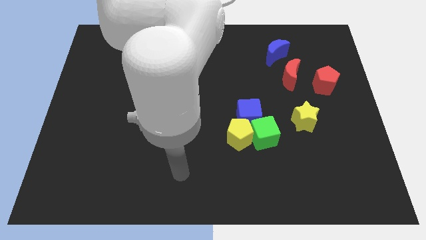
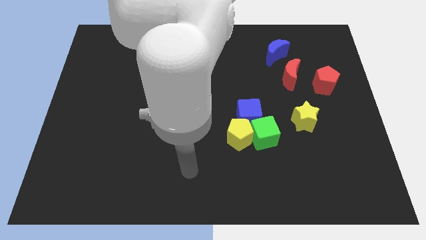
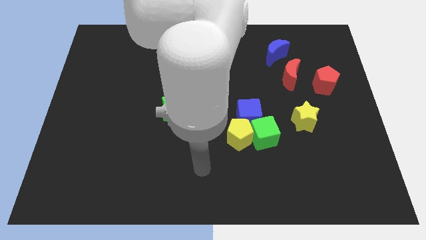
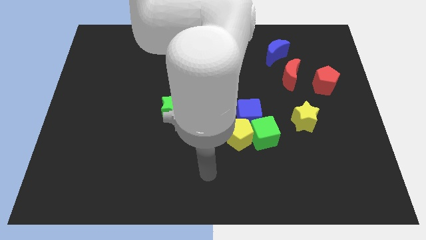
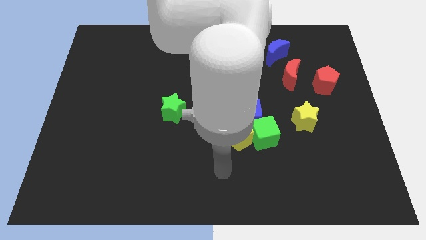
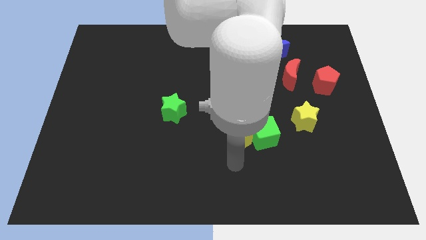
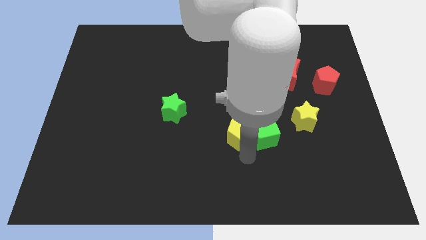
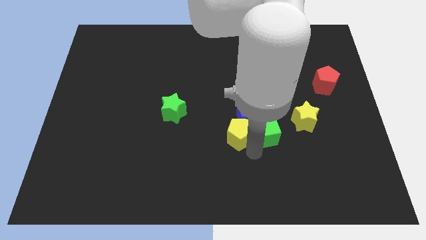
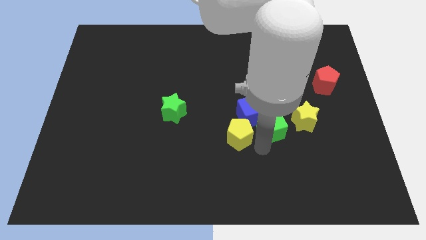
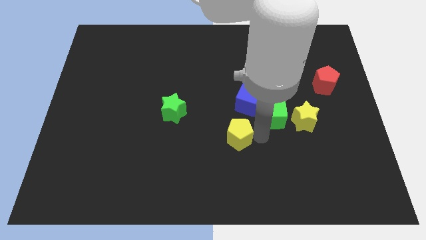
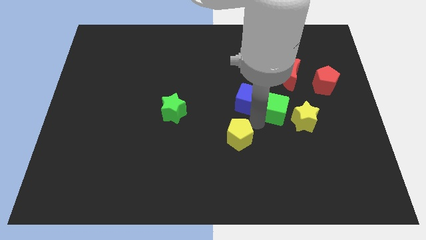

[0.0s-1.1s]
separate the yellow pentagon from the green cube and blue cube

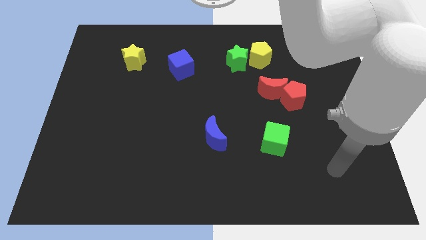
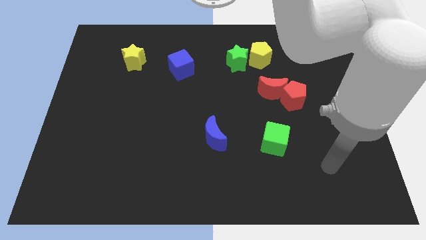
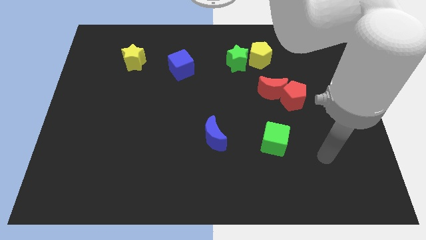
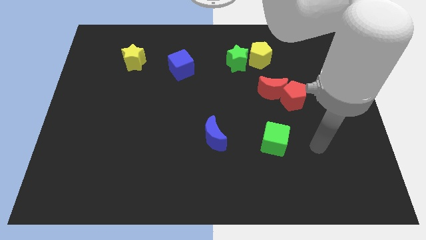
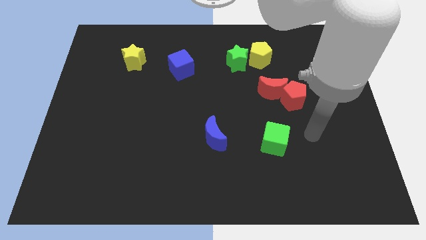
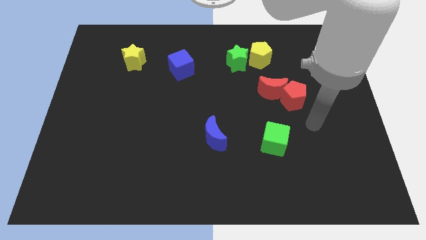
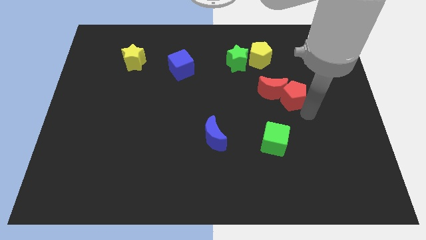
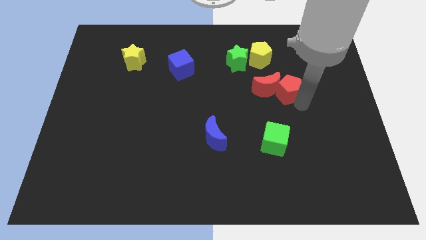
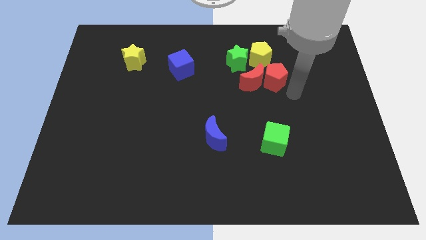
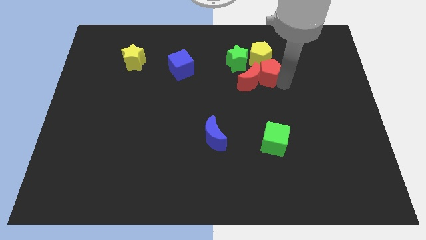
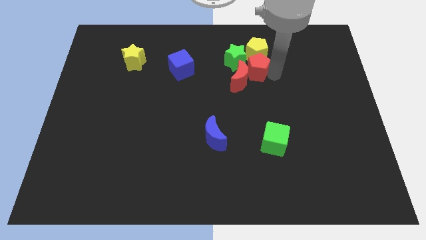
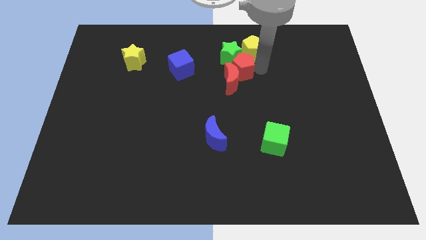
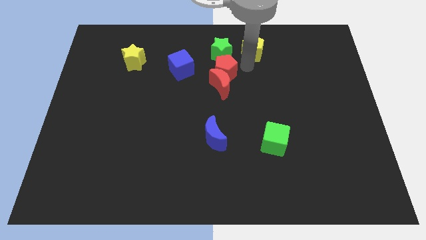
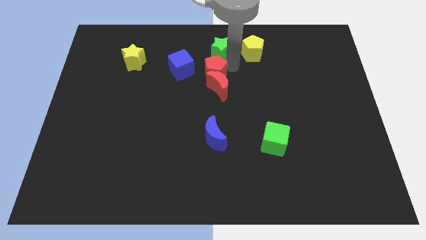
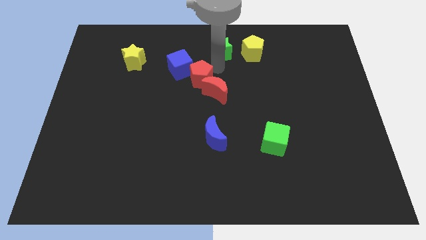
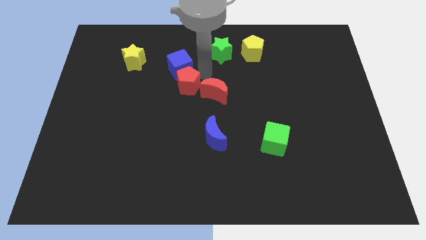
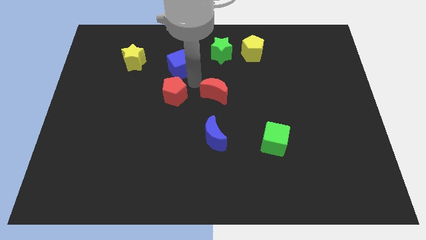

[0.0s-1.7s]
move the red moon away from the red pentagon

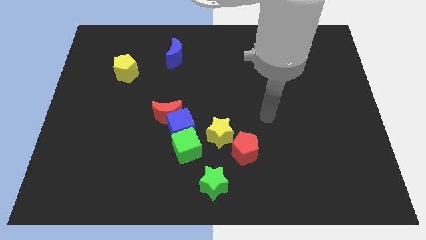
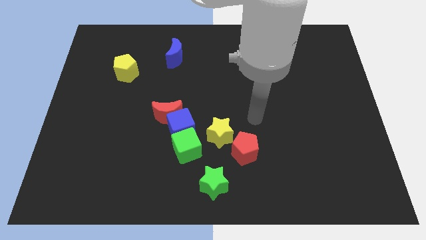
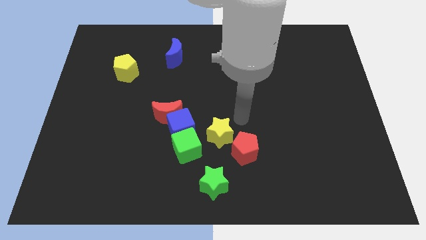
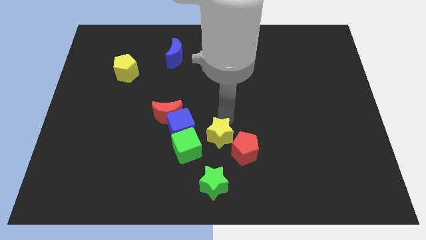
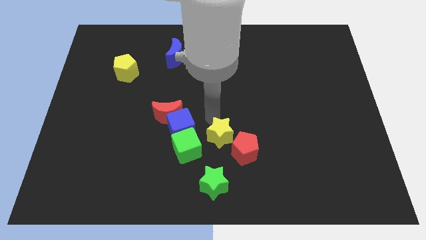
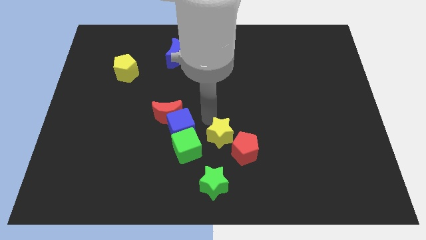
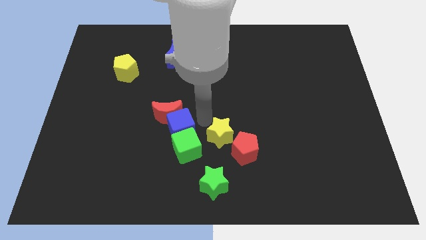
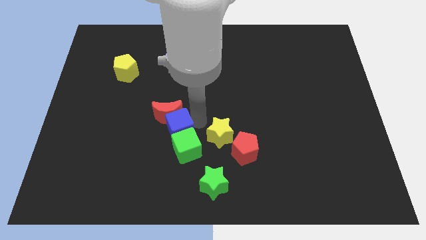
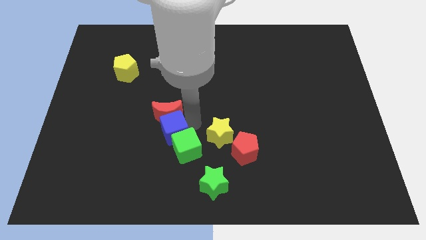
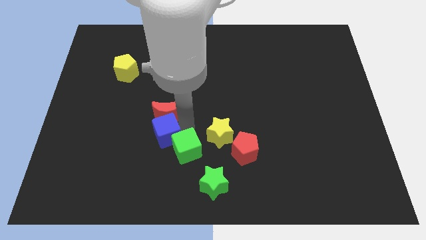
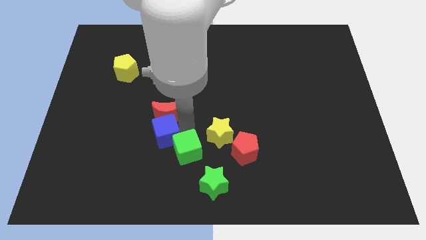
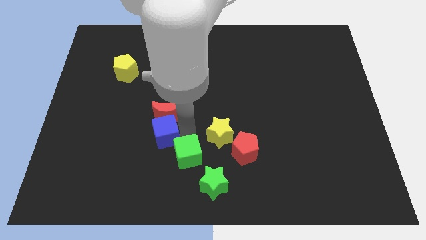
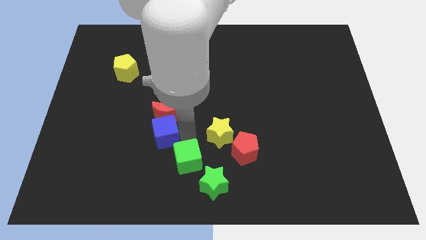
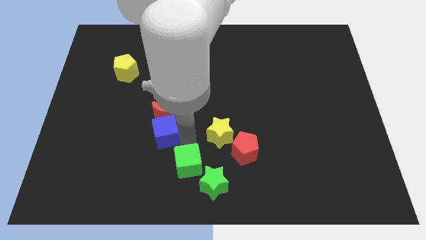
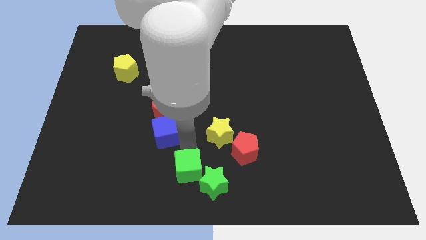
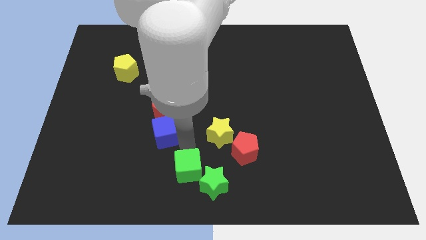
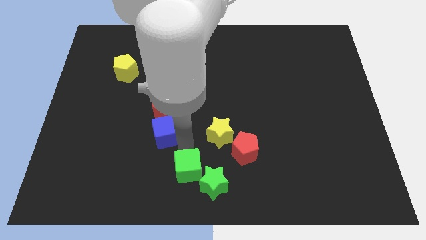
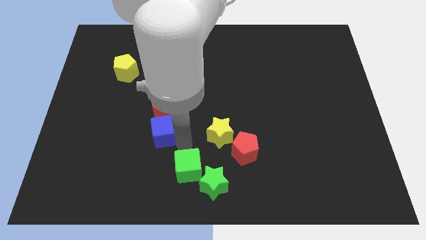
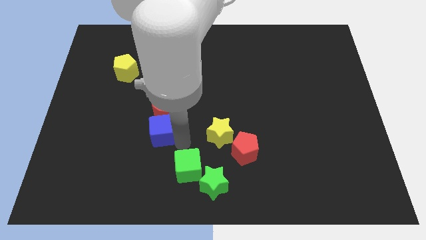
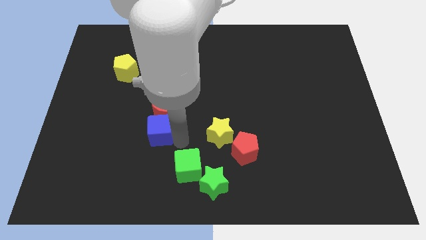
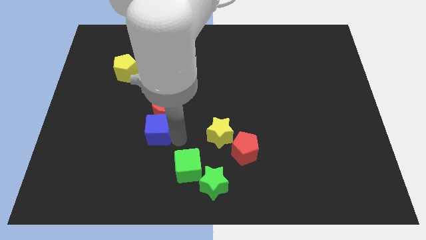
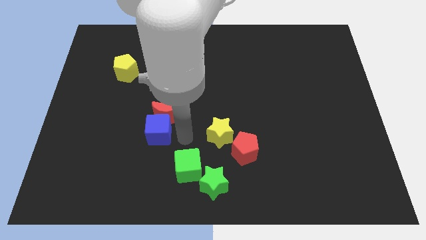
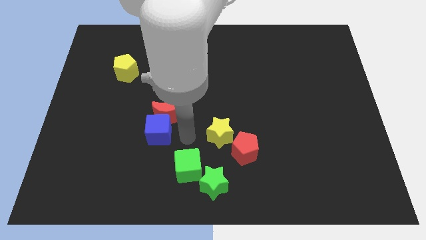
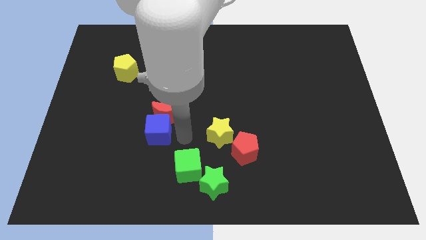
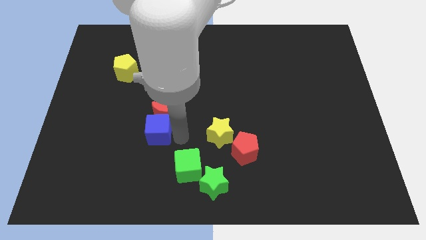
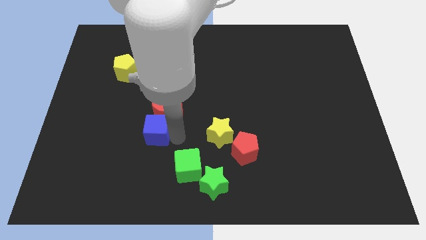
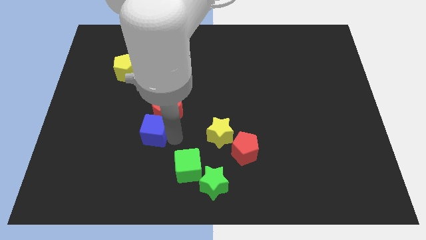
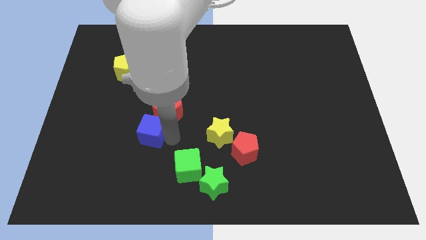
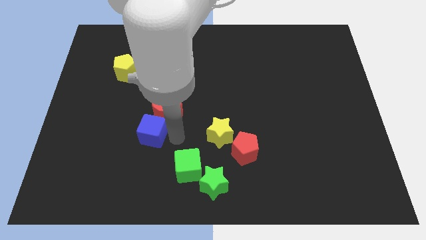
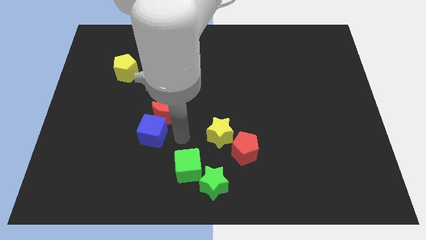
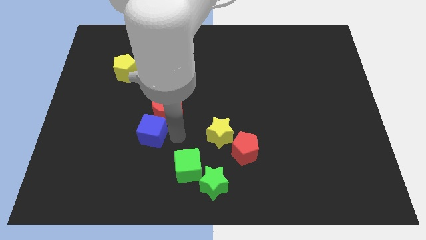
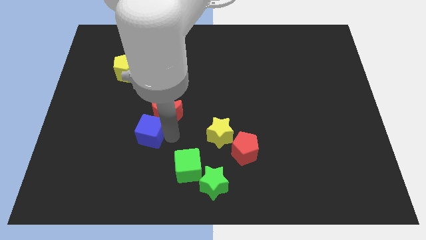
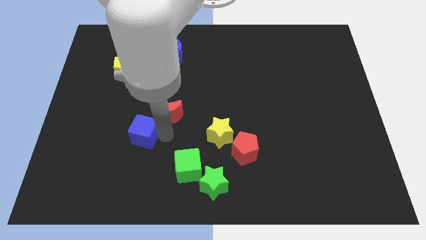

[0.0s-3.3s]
pull the blue cube apart from the red moon, green cube, and yellow star

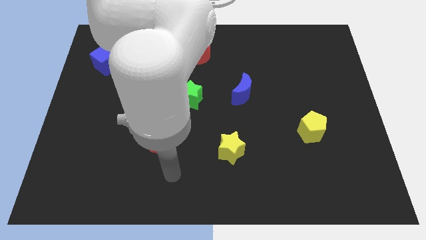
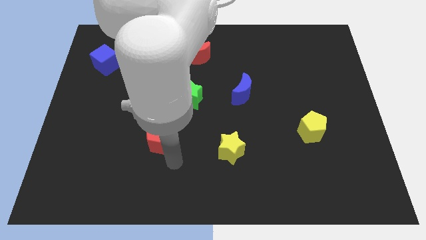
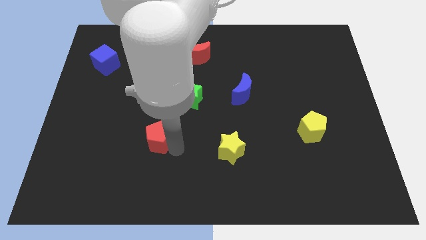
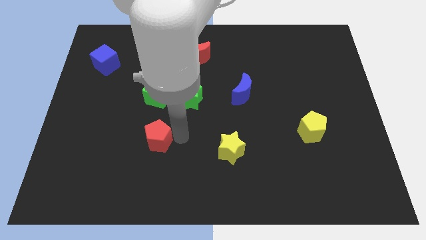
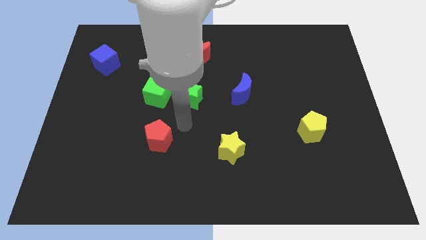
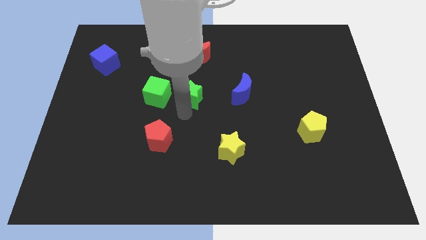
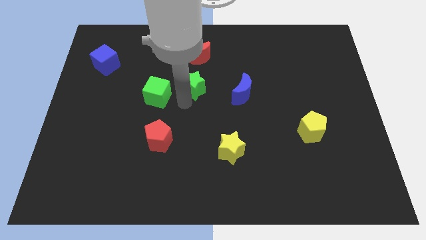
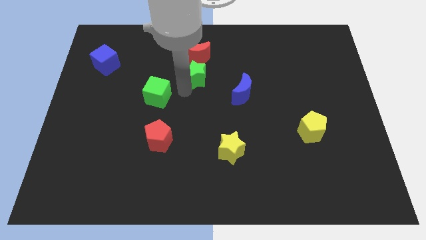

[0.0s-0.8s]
separate the green cube from the green star

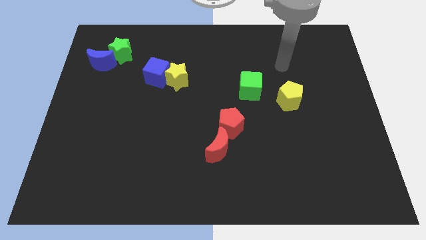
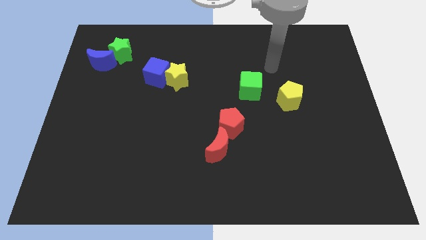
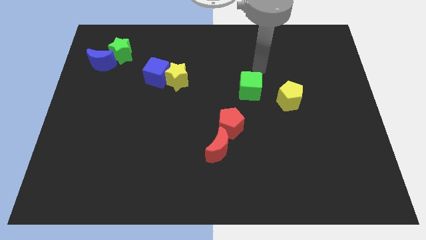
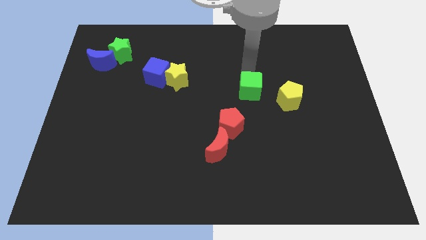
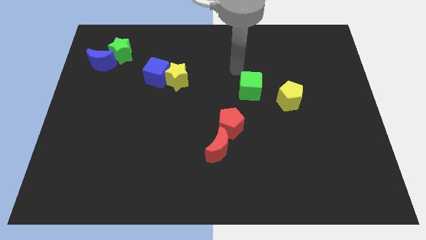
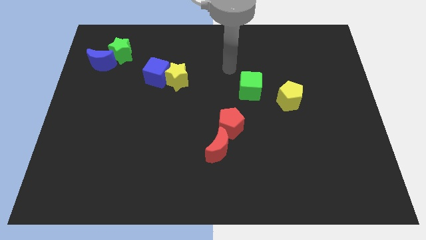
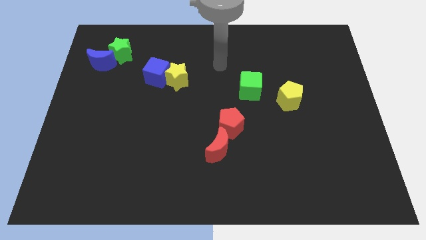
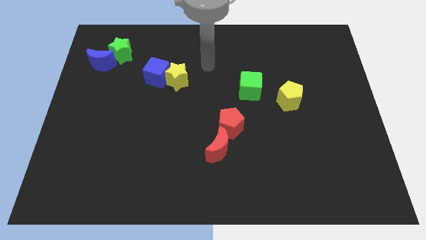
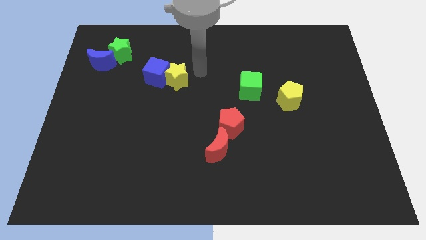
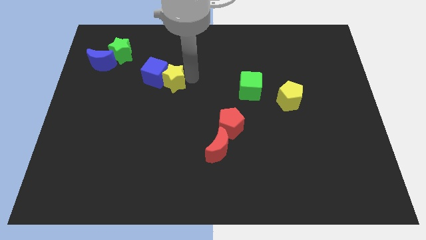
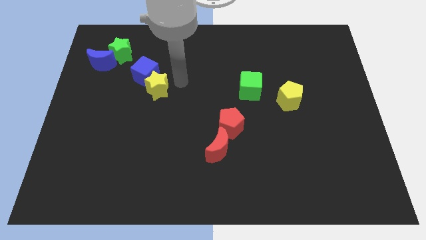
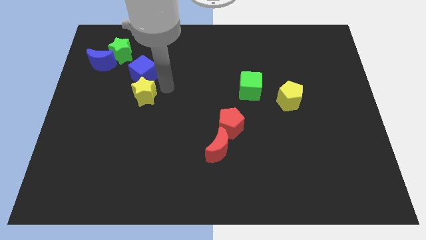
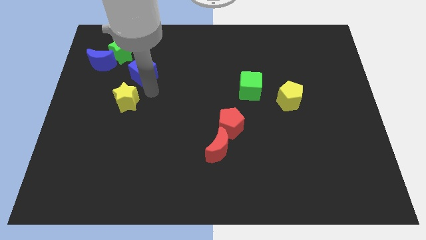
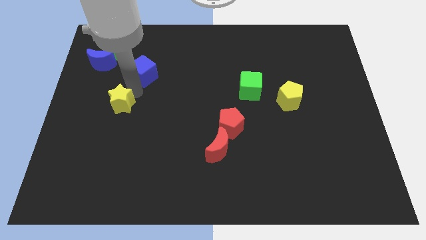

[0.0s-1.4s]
separate the blue cube from the yellow star

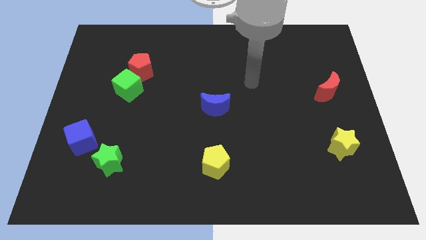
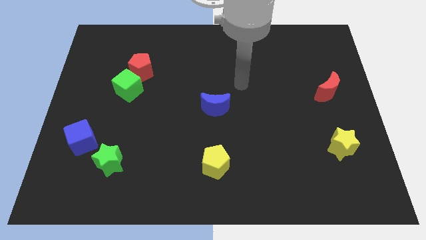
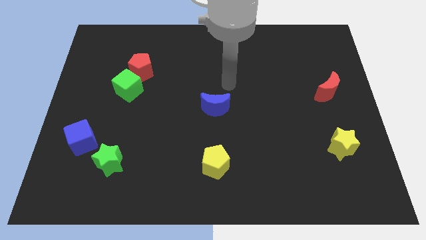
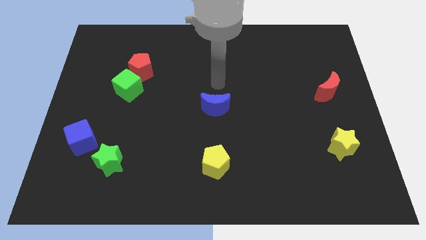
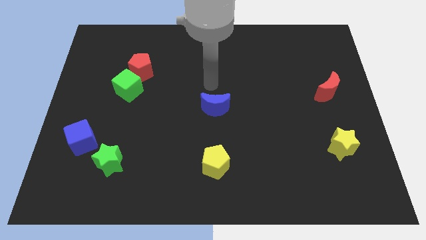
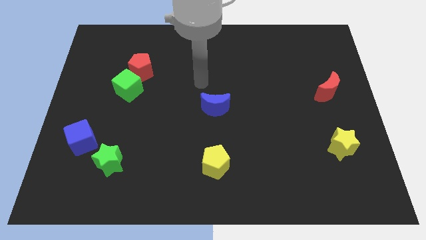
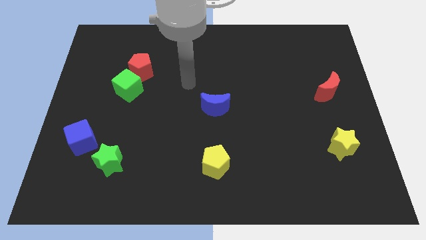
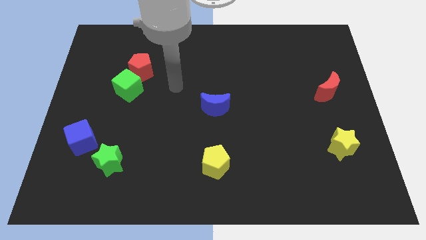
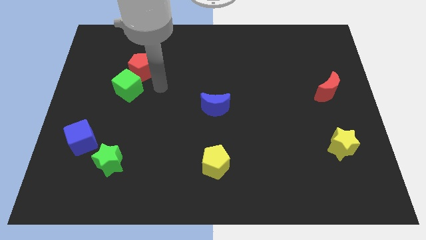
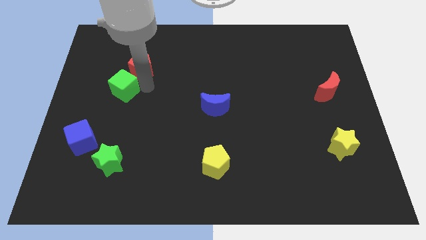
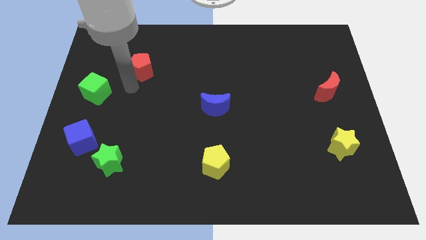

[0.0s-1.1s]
move the red pentagon away from the green cube
